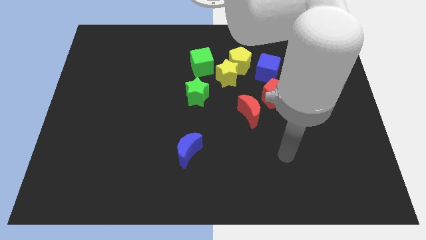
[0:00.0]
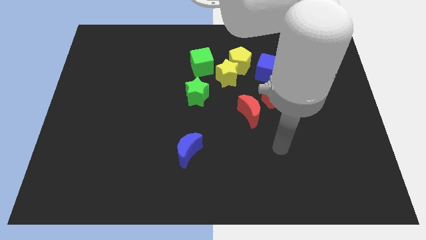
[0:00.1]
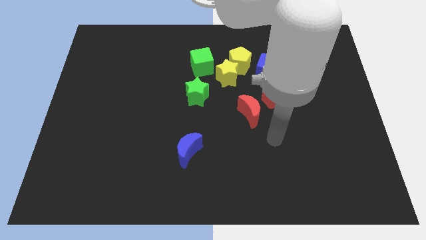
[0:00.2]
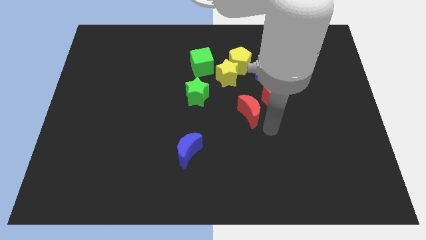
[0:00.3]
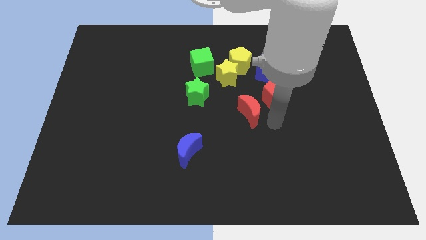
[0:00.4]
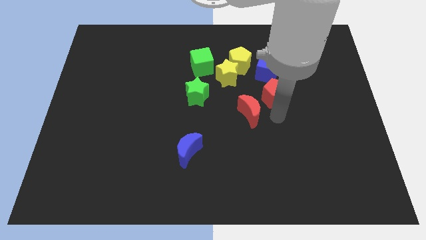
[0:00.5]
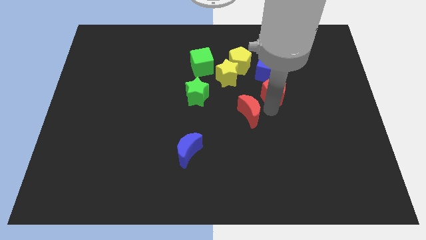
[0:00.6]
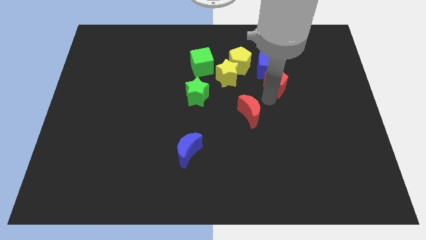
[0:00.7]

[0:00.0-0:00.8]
move the red moon away from the red pentagon

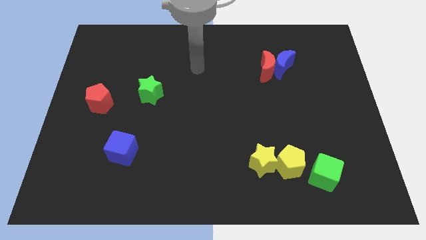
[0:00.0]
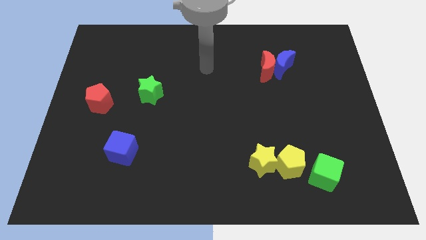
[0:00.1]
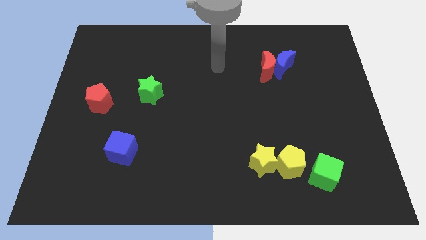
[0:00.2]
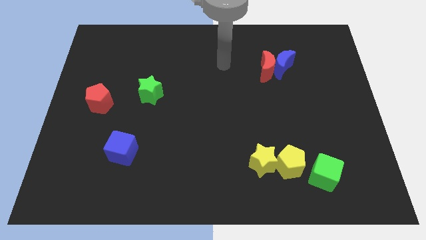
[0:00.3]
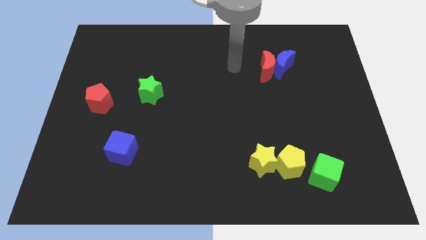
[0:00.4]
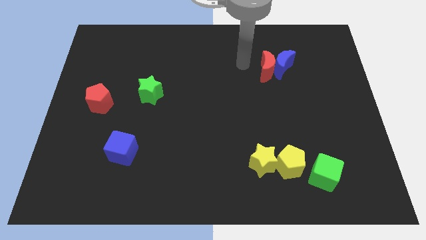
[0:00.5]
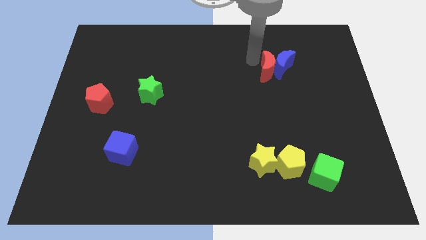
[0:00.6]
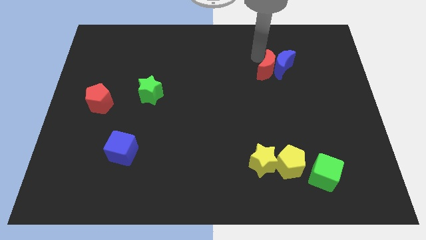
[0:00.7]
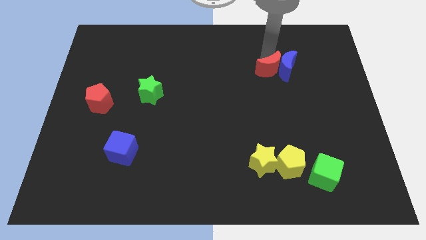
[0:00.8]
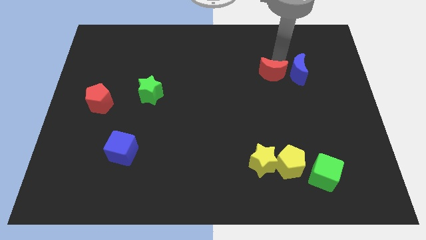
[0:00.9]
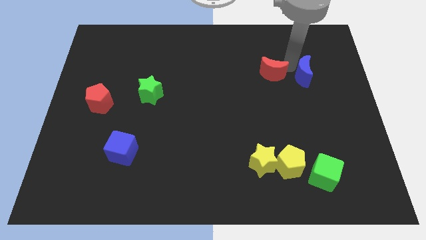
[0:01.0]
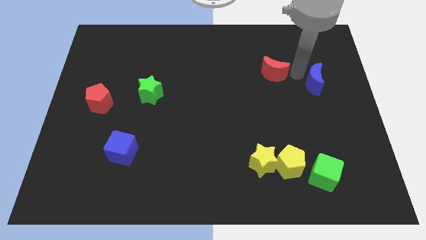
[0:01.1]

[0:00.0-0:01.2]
pull the red moon apart from the blue moon

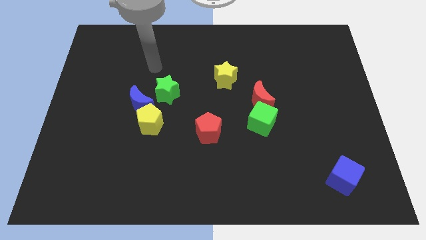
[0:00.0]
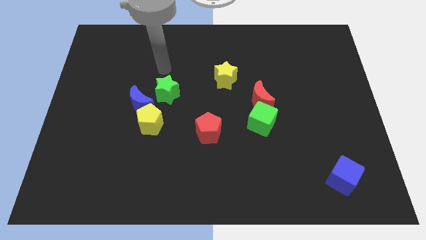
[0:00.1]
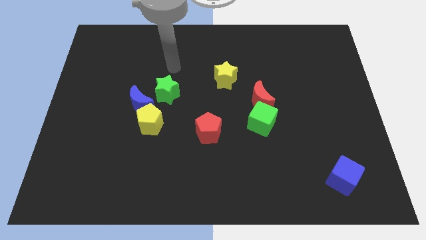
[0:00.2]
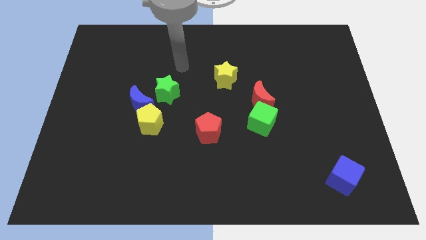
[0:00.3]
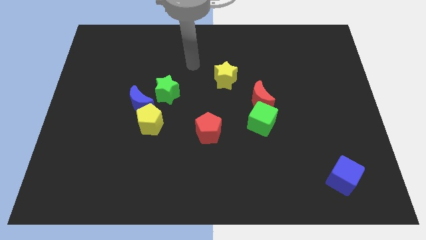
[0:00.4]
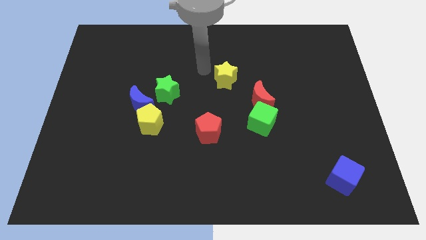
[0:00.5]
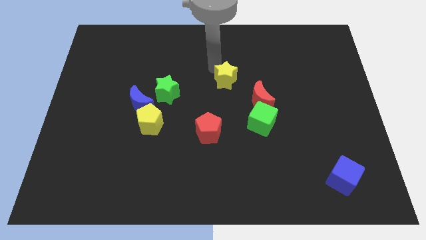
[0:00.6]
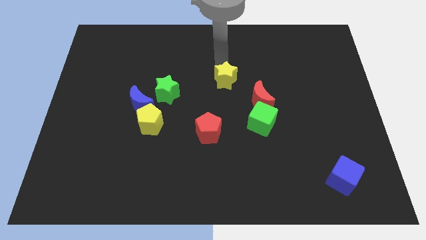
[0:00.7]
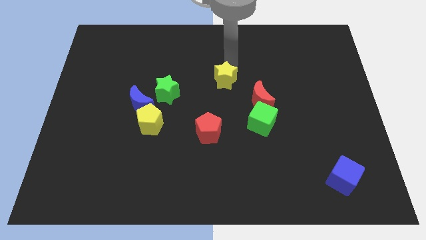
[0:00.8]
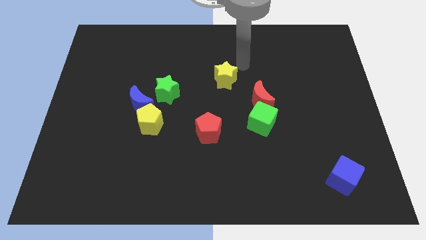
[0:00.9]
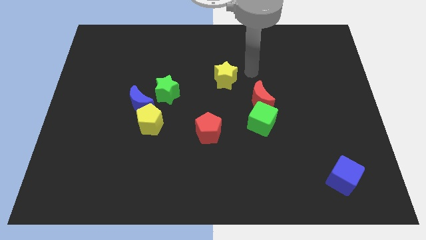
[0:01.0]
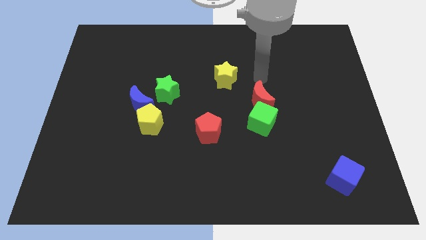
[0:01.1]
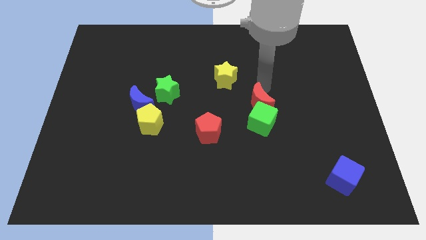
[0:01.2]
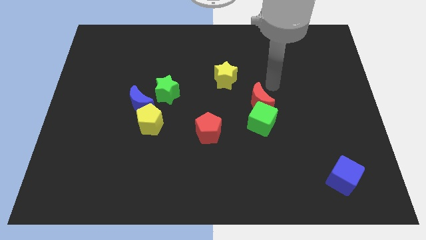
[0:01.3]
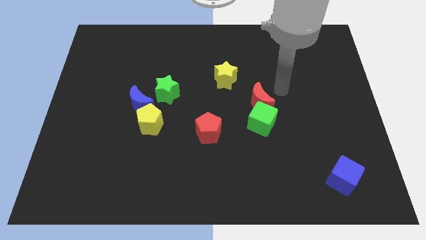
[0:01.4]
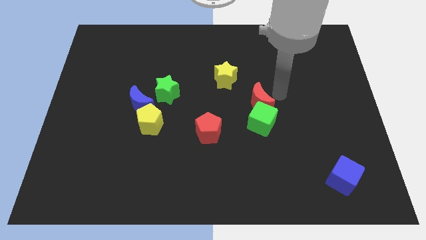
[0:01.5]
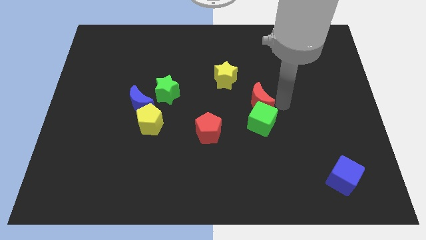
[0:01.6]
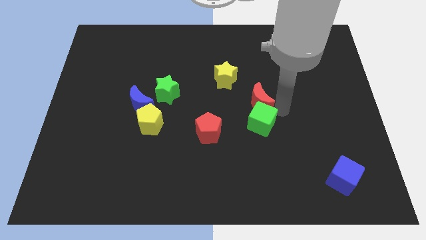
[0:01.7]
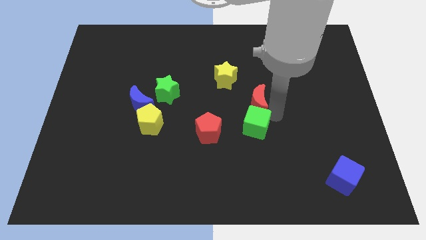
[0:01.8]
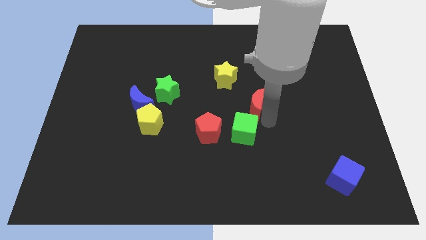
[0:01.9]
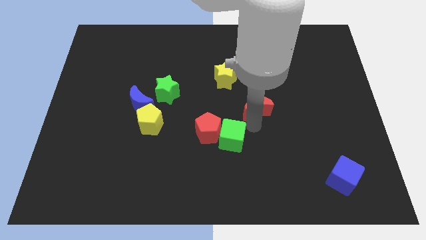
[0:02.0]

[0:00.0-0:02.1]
pull the red moon apart from the green cube

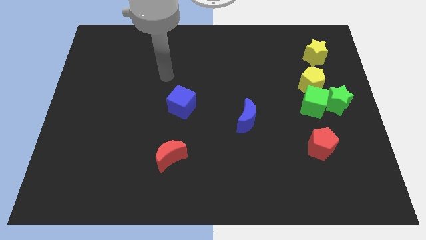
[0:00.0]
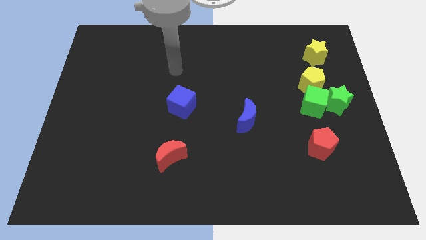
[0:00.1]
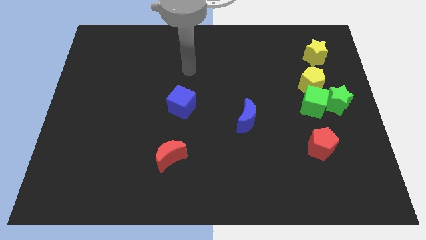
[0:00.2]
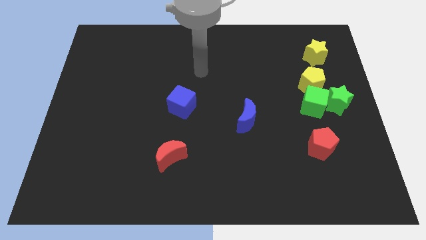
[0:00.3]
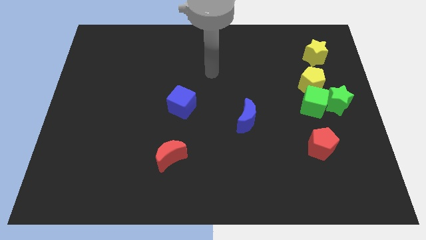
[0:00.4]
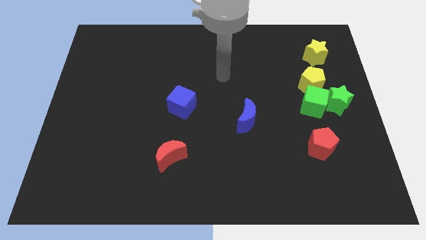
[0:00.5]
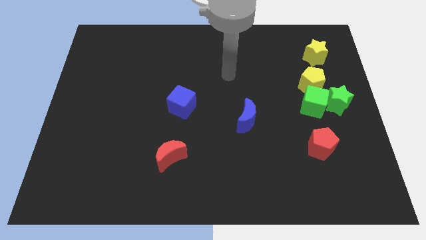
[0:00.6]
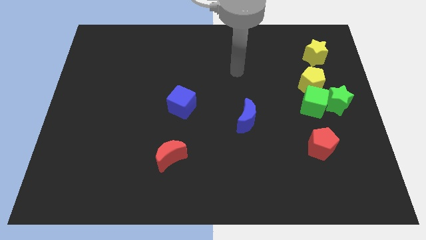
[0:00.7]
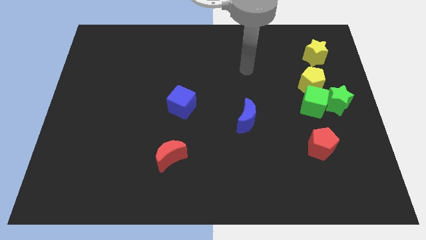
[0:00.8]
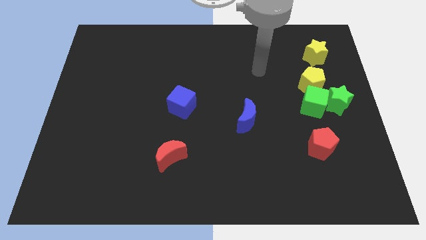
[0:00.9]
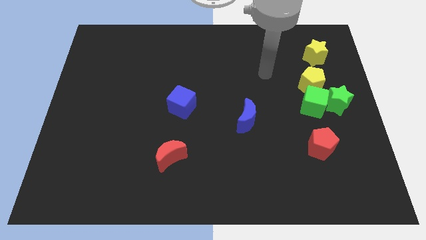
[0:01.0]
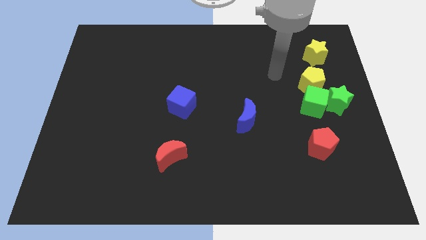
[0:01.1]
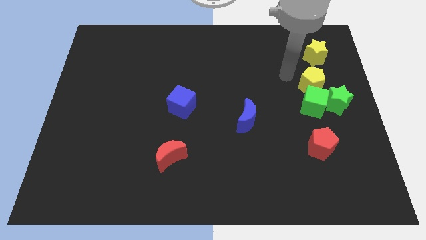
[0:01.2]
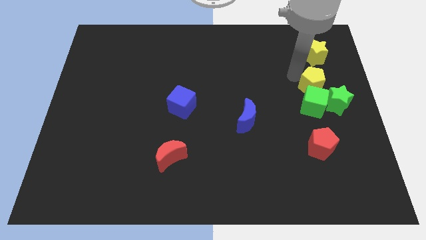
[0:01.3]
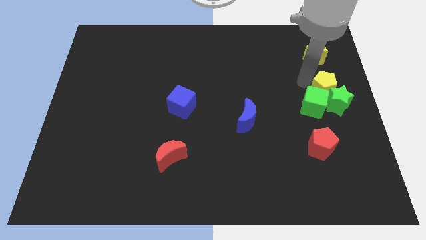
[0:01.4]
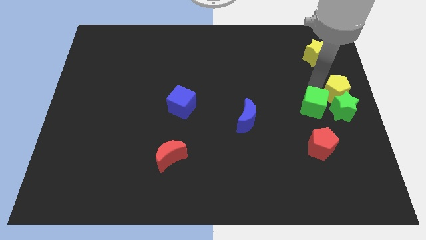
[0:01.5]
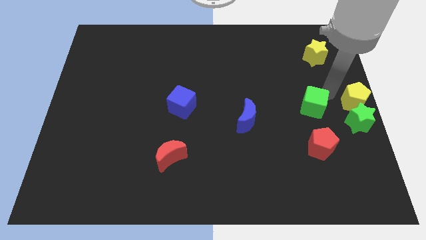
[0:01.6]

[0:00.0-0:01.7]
separate the green cube from the green star and yellow pentagon

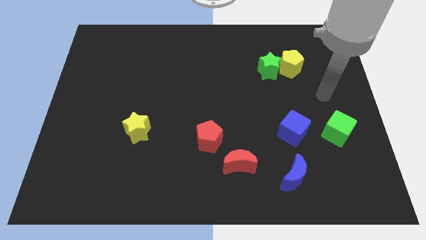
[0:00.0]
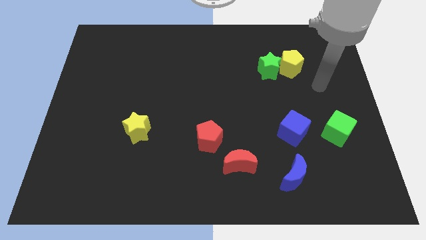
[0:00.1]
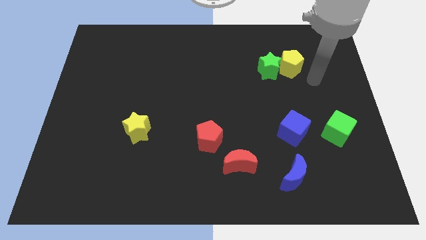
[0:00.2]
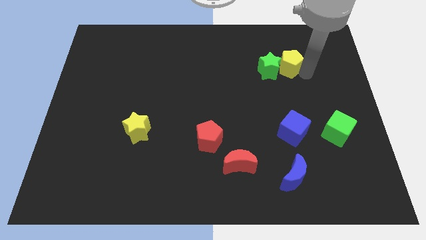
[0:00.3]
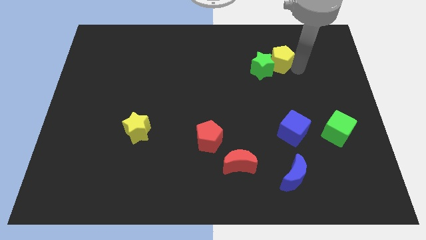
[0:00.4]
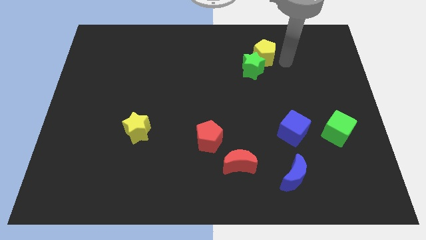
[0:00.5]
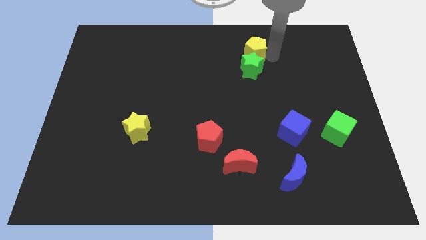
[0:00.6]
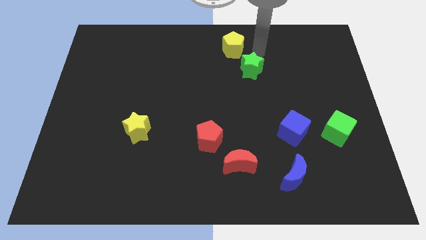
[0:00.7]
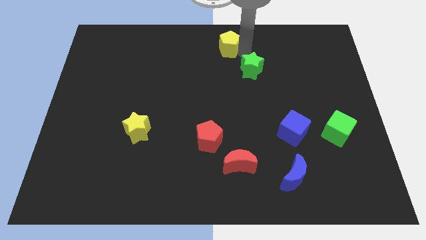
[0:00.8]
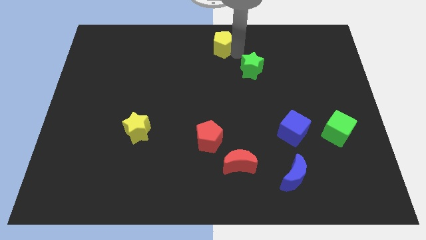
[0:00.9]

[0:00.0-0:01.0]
separate the green star from the yellow pentagon

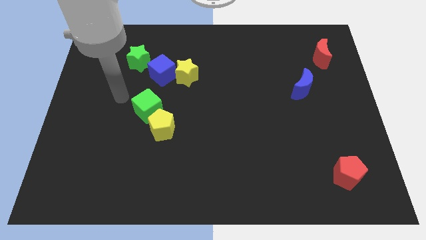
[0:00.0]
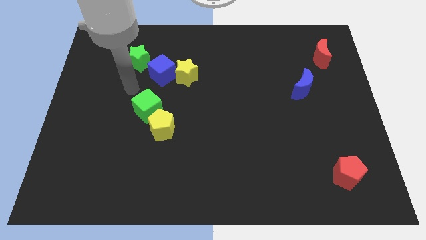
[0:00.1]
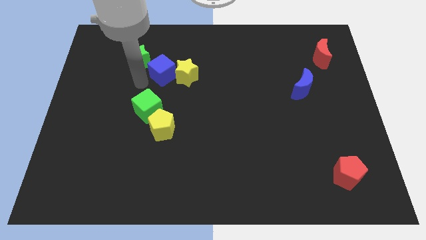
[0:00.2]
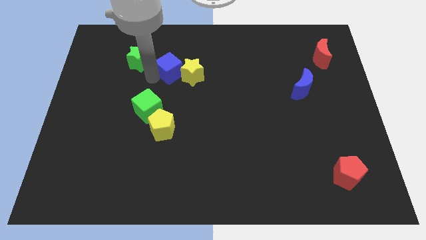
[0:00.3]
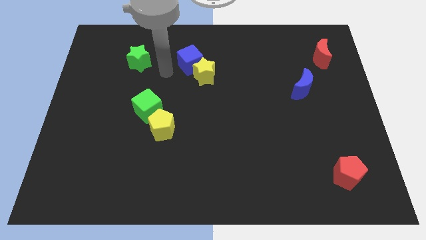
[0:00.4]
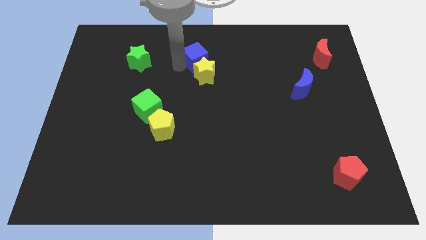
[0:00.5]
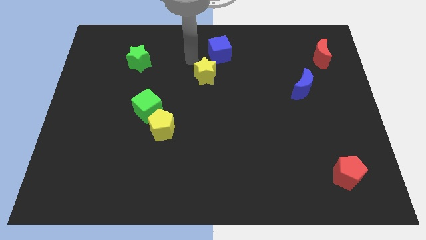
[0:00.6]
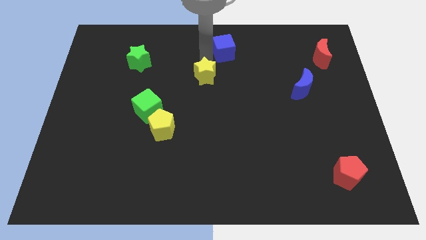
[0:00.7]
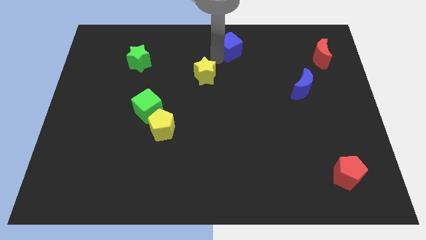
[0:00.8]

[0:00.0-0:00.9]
move the yellow star away from the blue cube

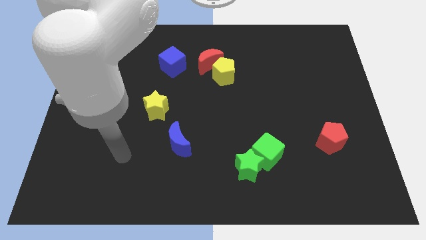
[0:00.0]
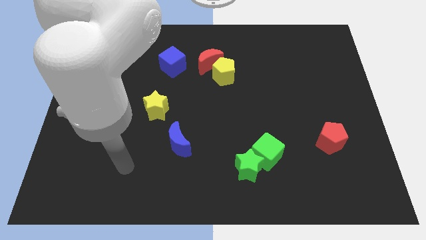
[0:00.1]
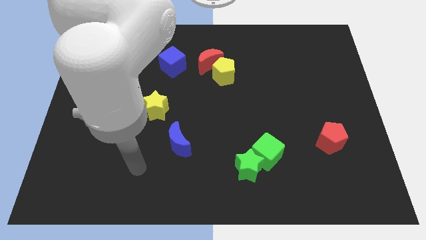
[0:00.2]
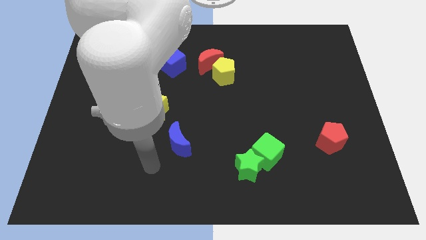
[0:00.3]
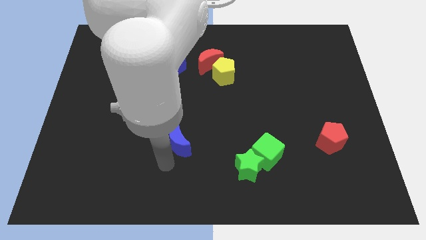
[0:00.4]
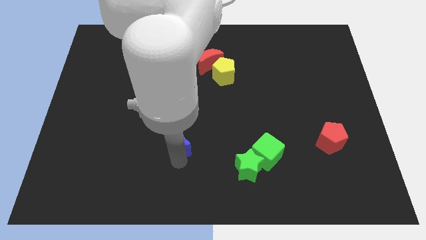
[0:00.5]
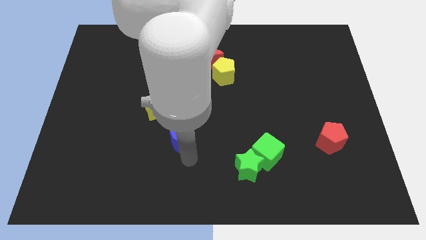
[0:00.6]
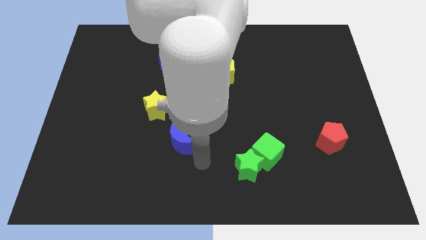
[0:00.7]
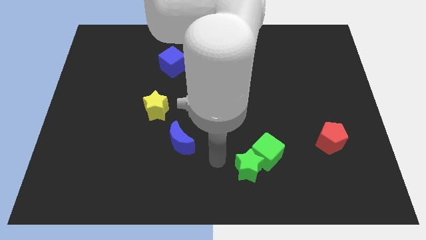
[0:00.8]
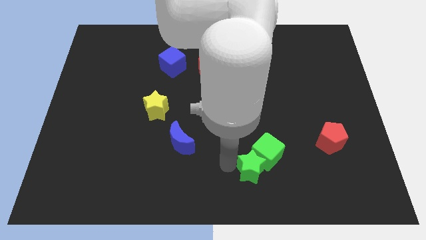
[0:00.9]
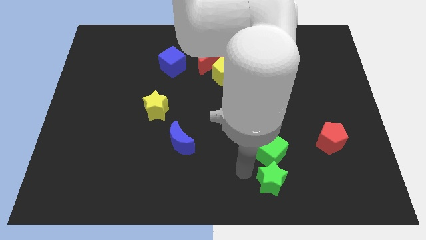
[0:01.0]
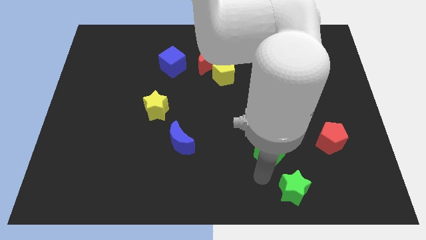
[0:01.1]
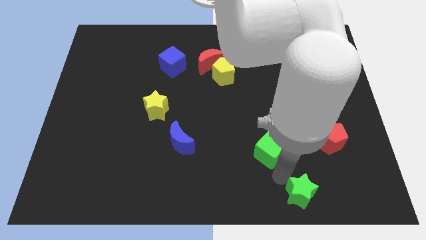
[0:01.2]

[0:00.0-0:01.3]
pull the green cube apart from the green star

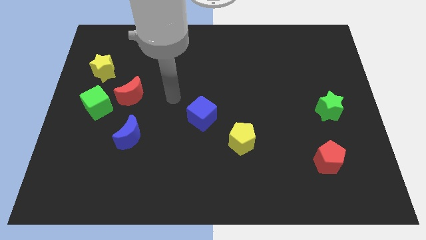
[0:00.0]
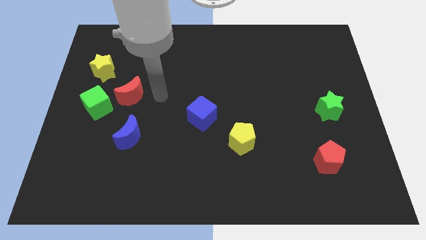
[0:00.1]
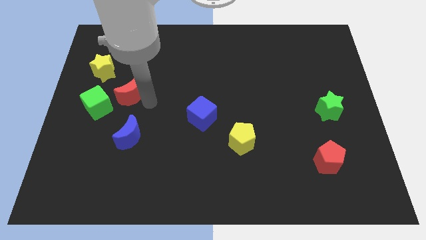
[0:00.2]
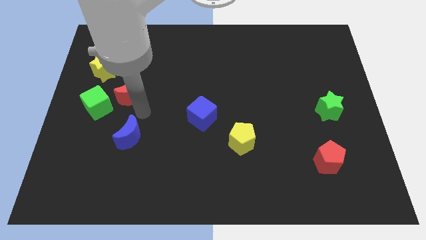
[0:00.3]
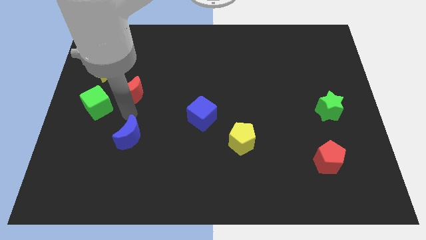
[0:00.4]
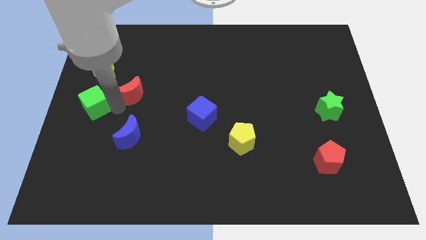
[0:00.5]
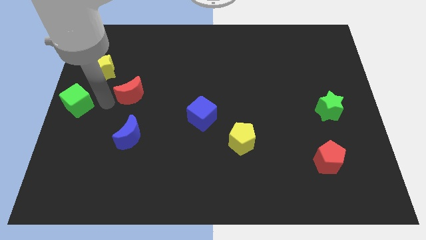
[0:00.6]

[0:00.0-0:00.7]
separate the red moon from the green cube
